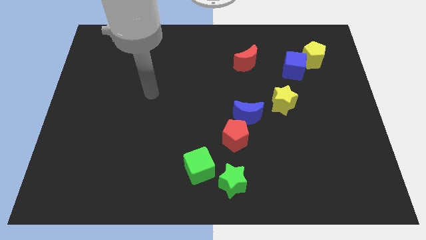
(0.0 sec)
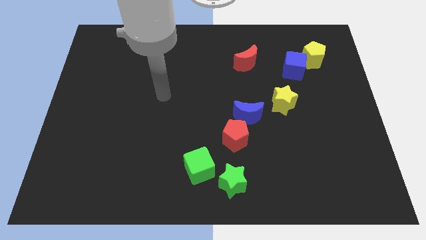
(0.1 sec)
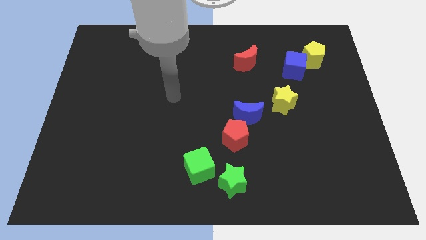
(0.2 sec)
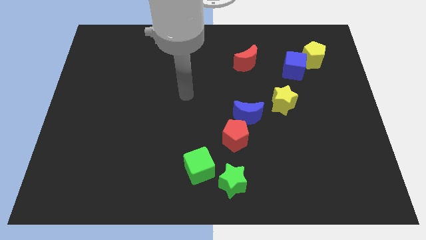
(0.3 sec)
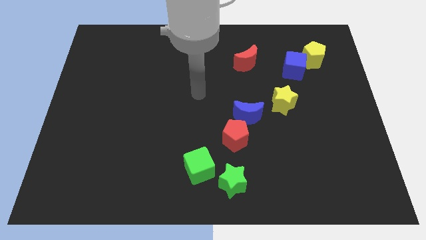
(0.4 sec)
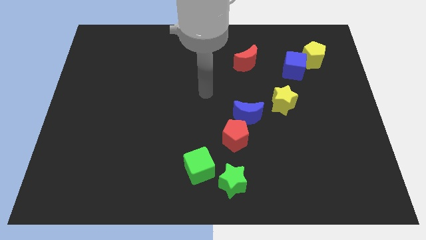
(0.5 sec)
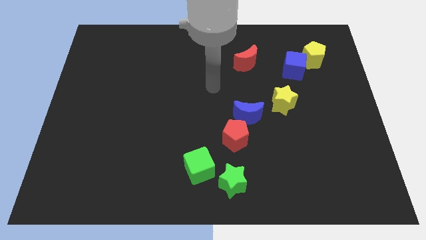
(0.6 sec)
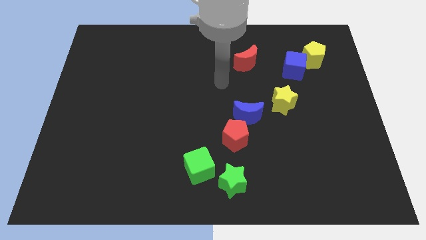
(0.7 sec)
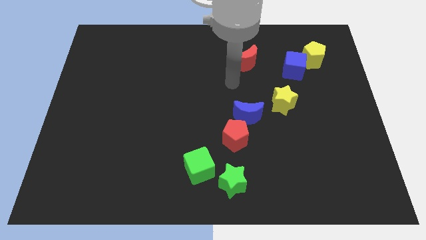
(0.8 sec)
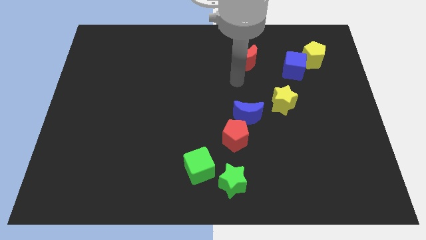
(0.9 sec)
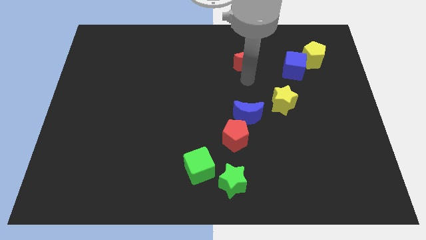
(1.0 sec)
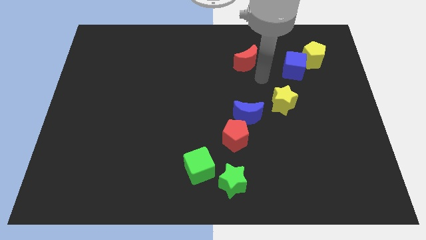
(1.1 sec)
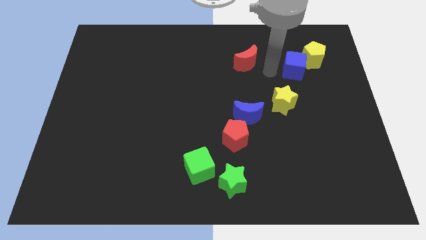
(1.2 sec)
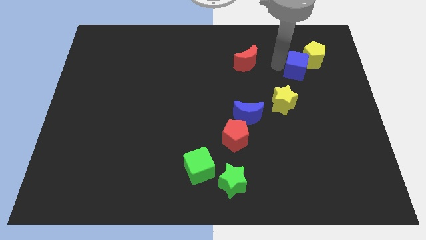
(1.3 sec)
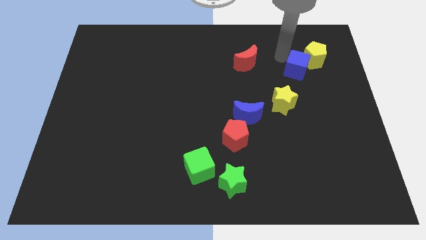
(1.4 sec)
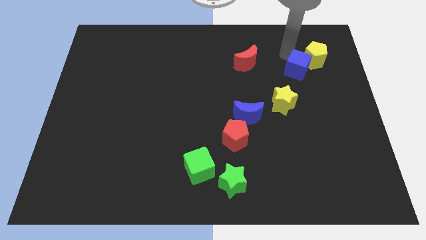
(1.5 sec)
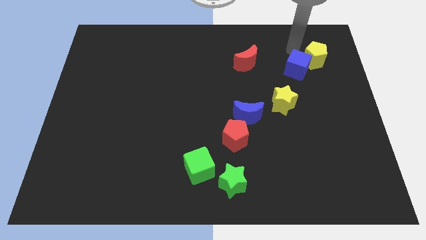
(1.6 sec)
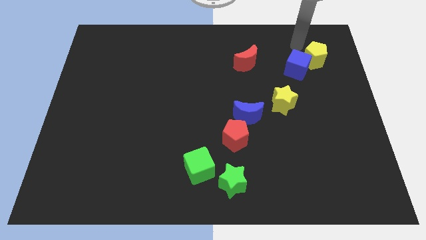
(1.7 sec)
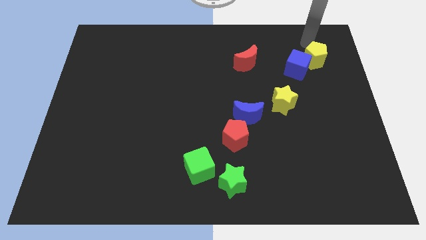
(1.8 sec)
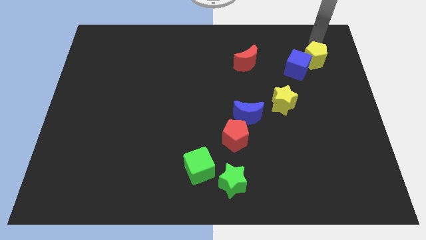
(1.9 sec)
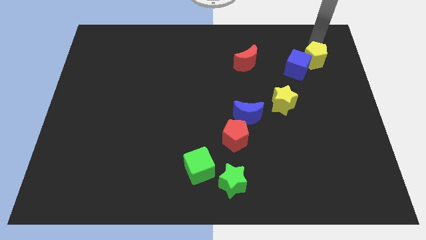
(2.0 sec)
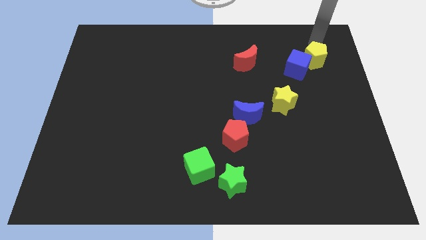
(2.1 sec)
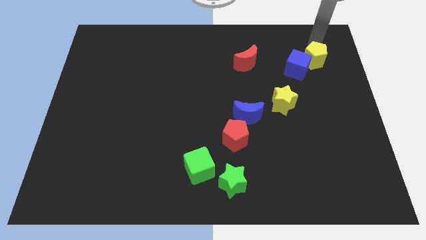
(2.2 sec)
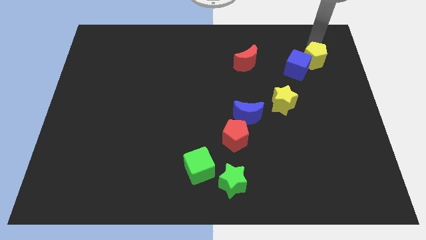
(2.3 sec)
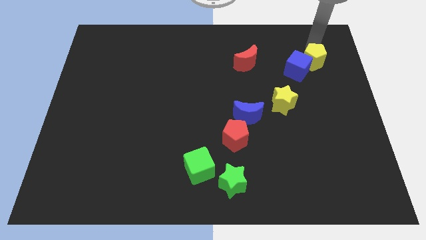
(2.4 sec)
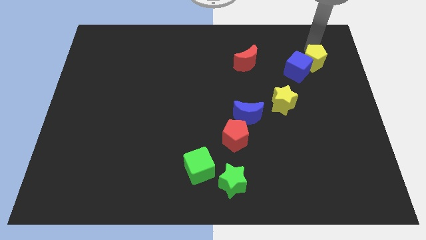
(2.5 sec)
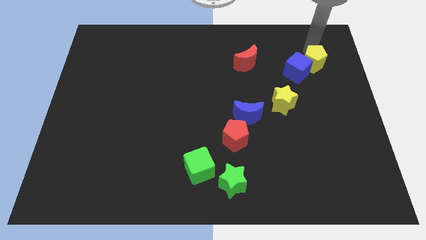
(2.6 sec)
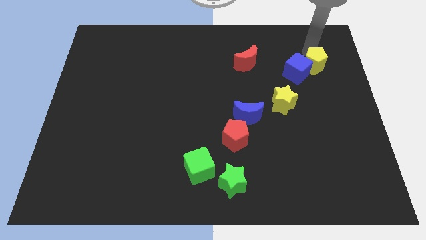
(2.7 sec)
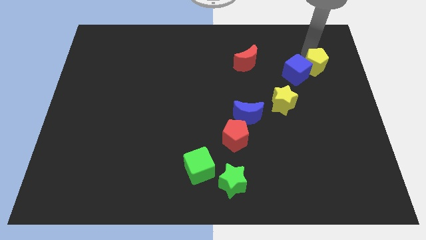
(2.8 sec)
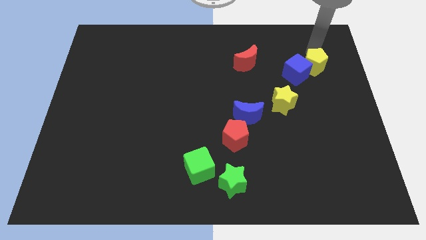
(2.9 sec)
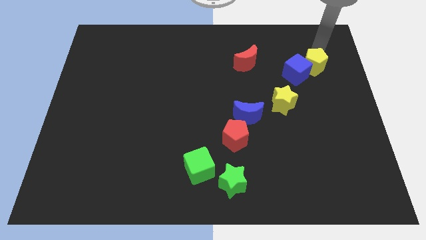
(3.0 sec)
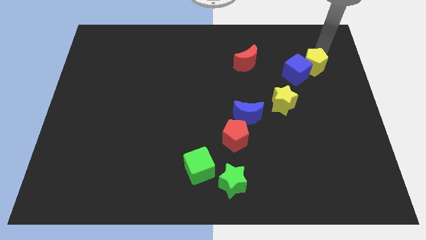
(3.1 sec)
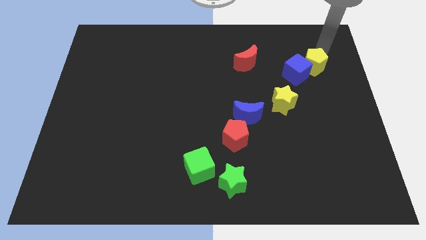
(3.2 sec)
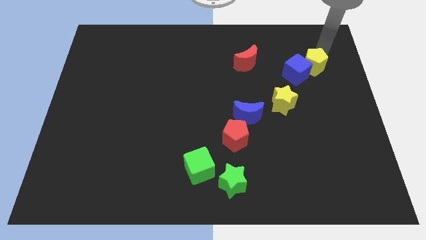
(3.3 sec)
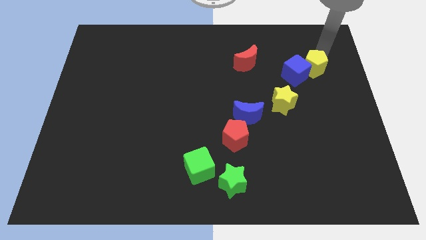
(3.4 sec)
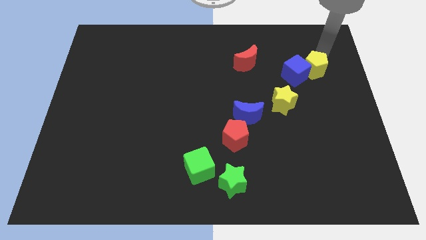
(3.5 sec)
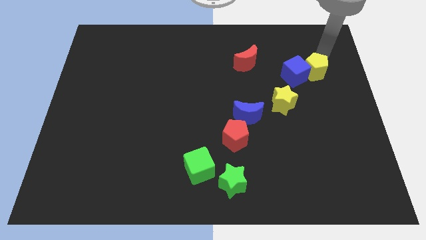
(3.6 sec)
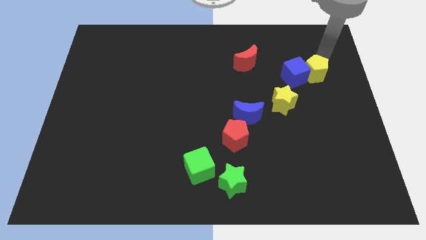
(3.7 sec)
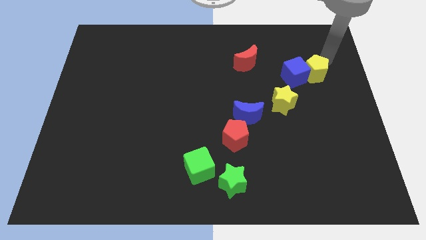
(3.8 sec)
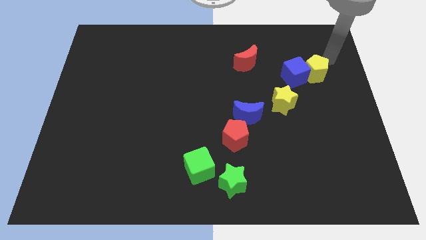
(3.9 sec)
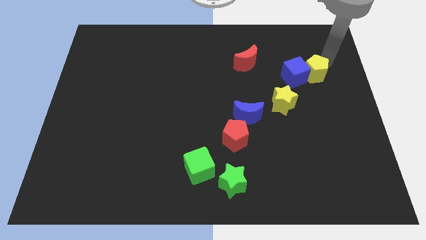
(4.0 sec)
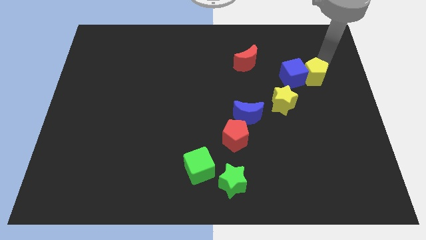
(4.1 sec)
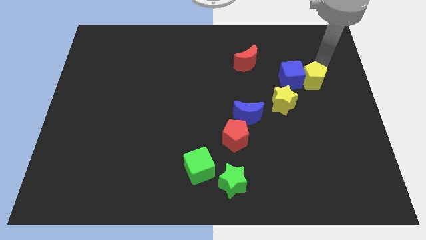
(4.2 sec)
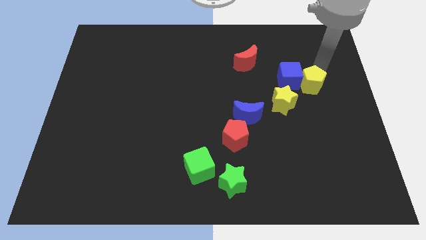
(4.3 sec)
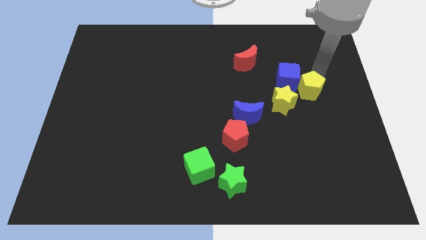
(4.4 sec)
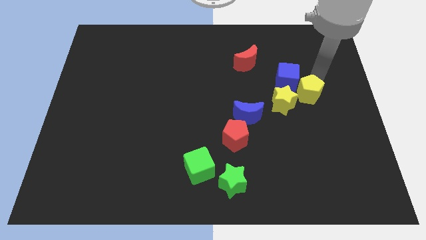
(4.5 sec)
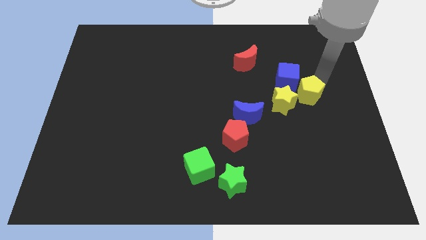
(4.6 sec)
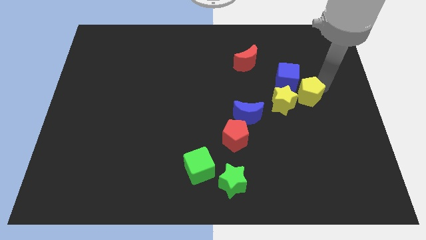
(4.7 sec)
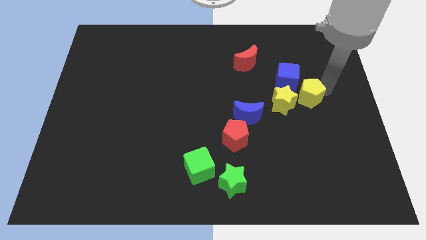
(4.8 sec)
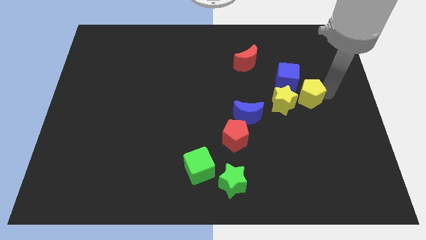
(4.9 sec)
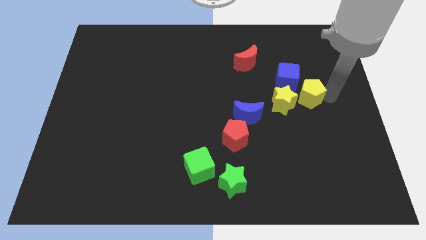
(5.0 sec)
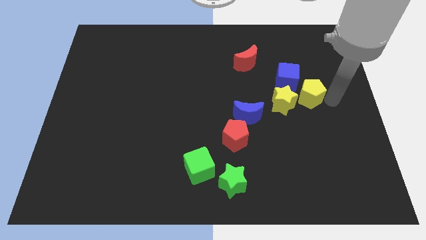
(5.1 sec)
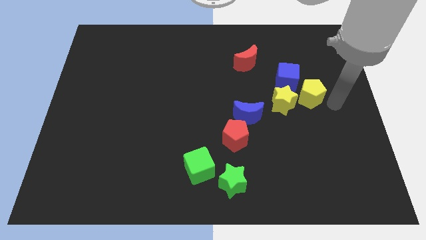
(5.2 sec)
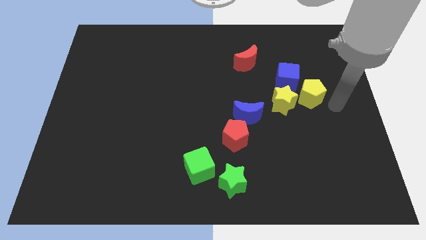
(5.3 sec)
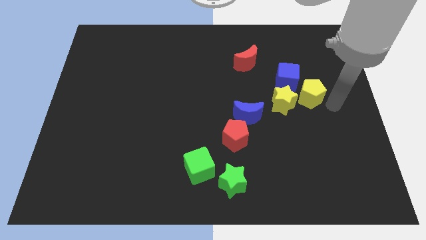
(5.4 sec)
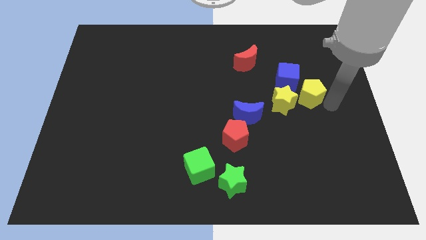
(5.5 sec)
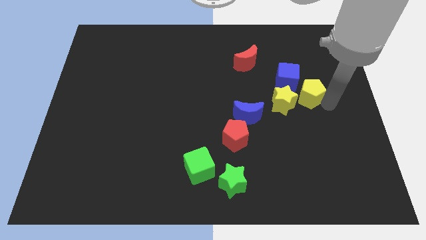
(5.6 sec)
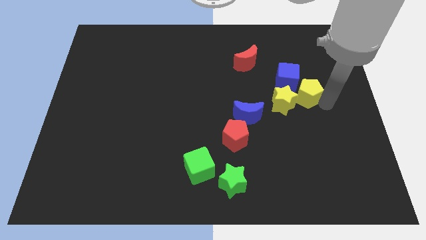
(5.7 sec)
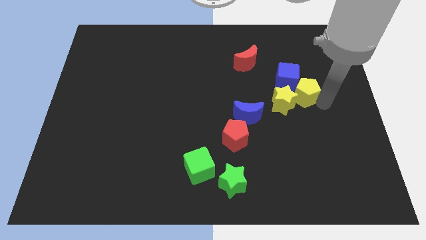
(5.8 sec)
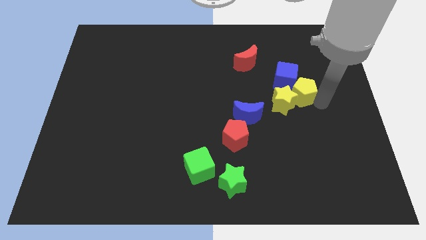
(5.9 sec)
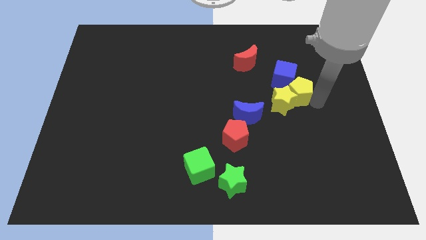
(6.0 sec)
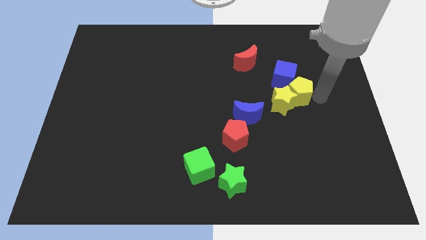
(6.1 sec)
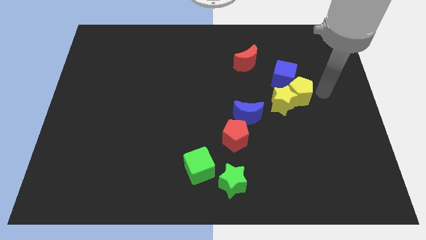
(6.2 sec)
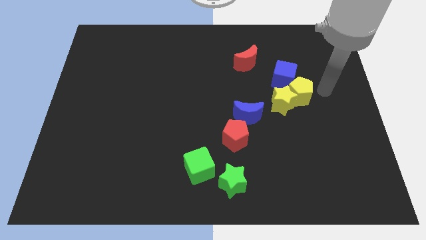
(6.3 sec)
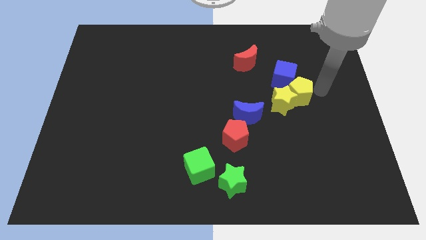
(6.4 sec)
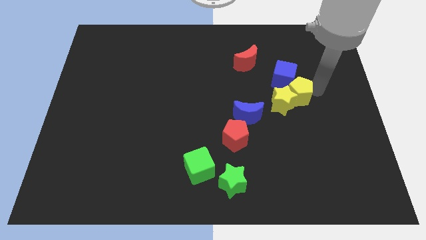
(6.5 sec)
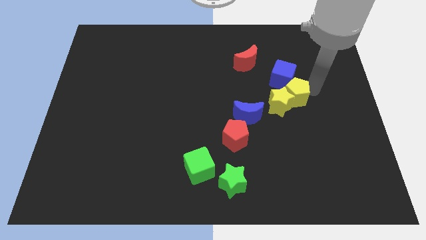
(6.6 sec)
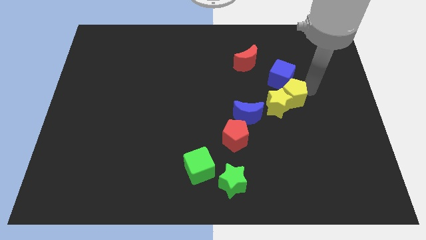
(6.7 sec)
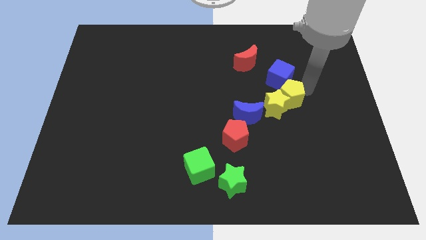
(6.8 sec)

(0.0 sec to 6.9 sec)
slide the yellow pentagon diagonally up and to the right of the blue moon
